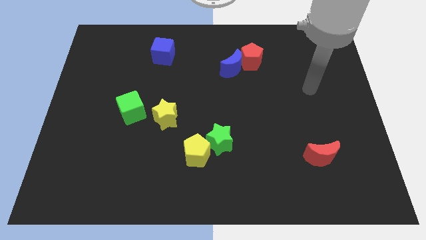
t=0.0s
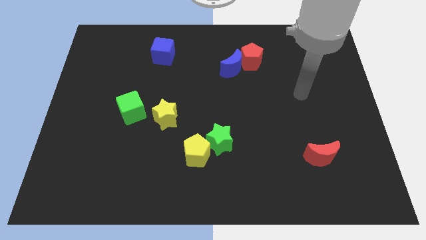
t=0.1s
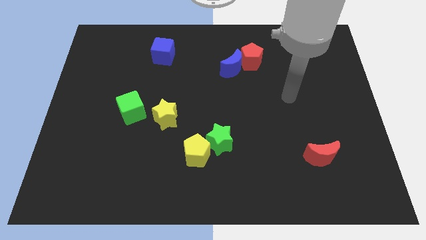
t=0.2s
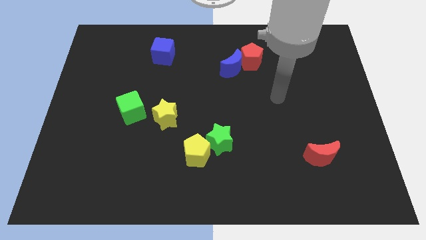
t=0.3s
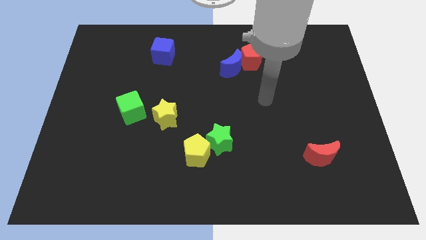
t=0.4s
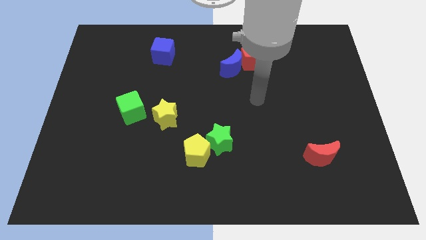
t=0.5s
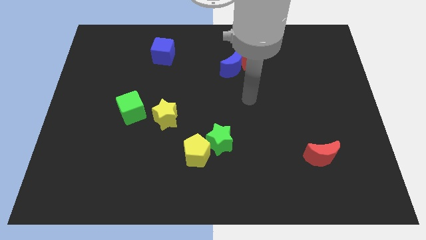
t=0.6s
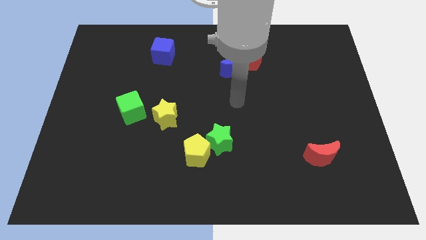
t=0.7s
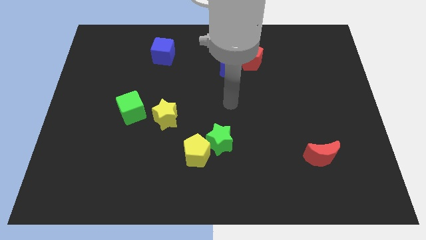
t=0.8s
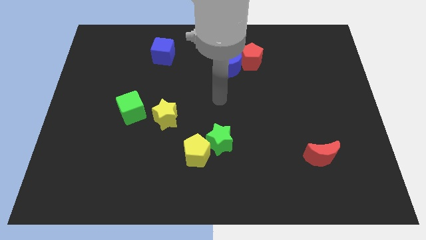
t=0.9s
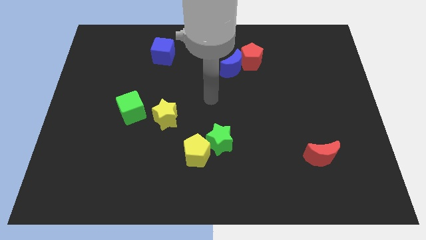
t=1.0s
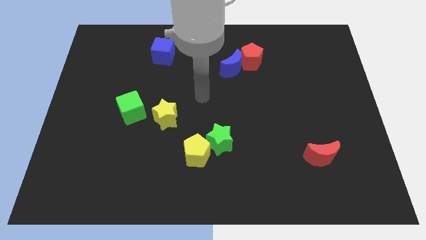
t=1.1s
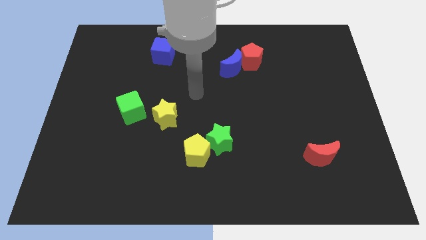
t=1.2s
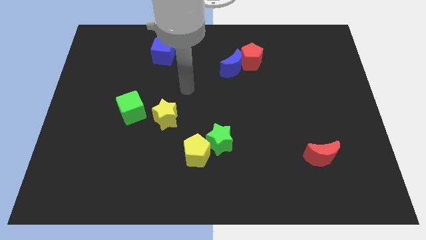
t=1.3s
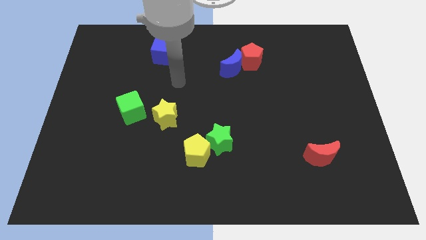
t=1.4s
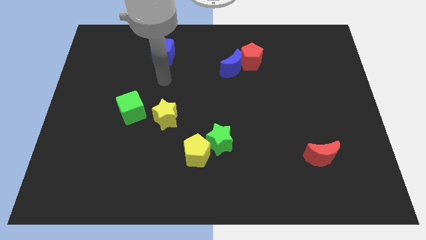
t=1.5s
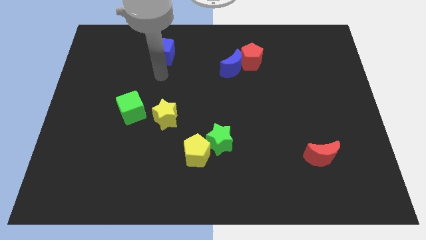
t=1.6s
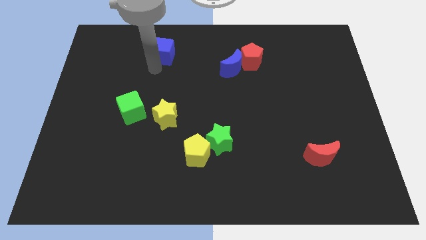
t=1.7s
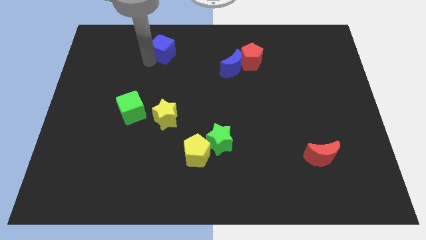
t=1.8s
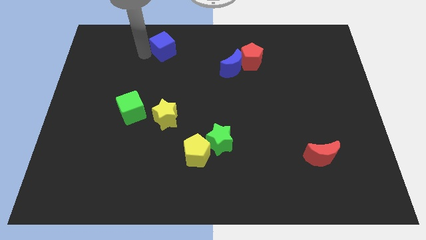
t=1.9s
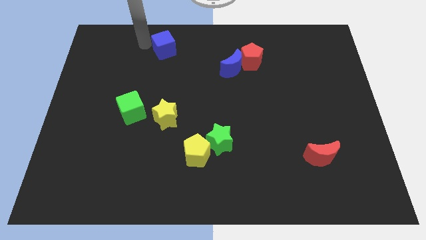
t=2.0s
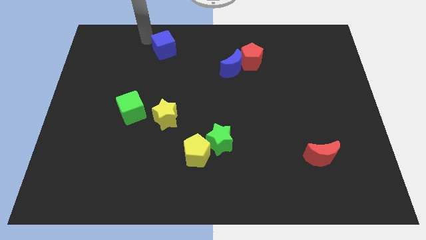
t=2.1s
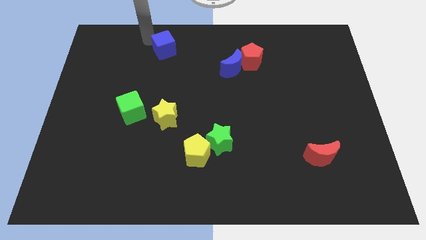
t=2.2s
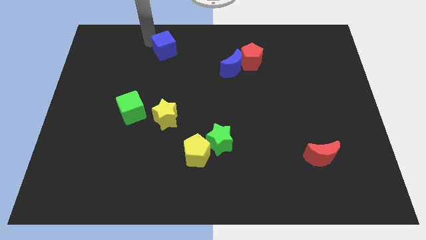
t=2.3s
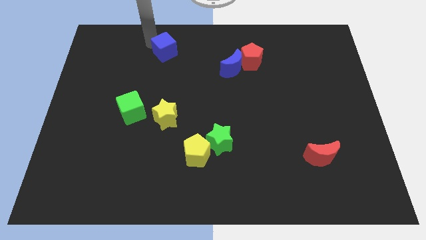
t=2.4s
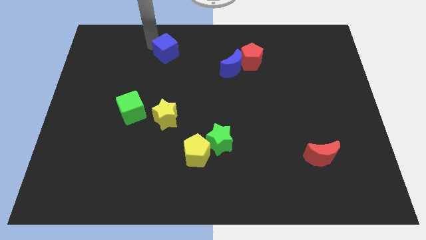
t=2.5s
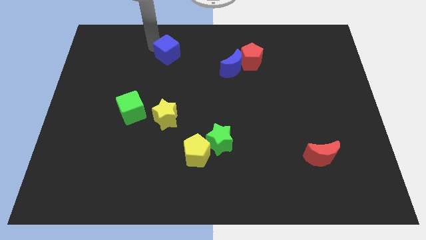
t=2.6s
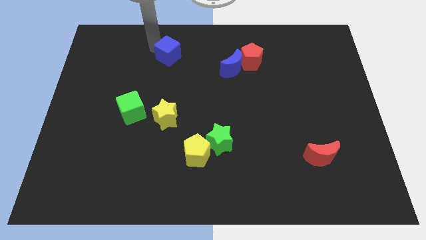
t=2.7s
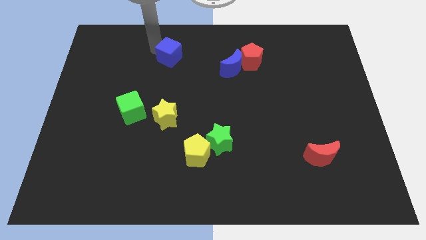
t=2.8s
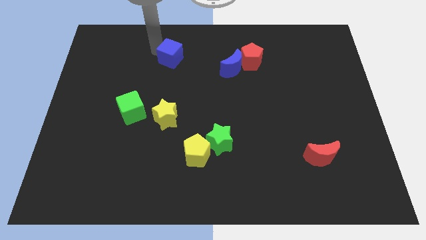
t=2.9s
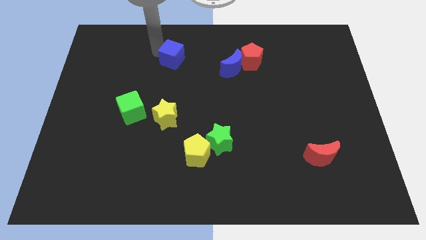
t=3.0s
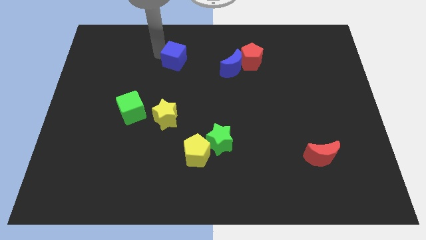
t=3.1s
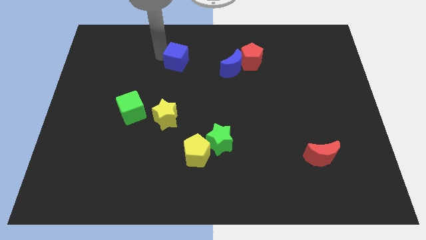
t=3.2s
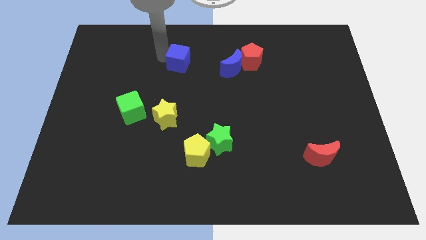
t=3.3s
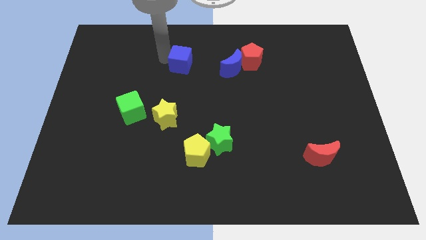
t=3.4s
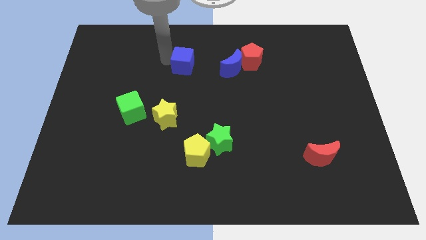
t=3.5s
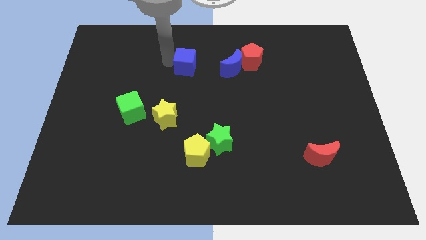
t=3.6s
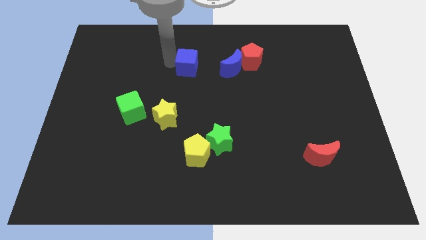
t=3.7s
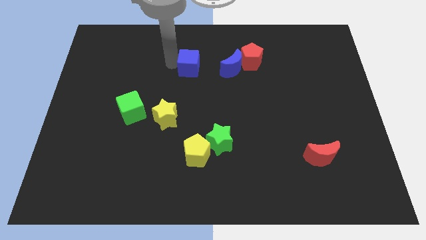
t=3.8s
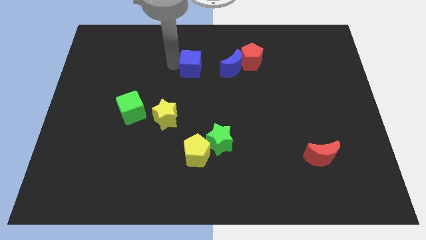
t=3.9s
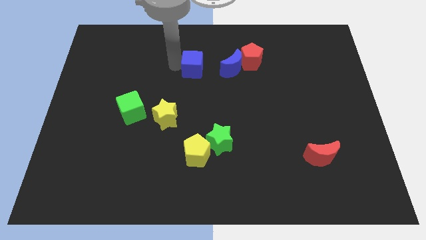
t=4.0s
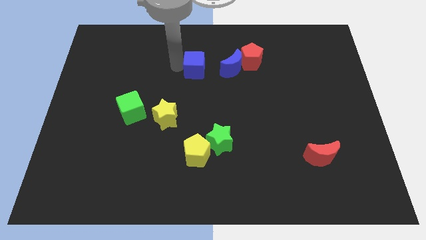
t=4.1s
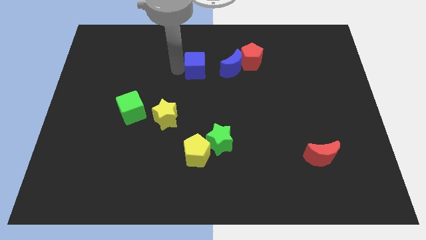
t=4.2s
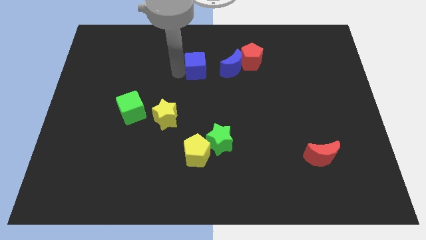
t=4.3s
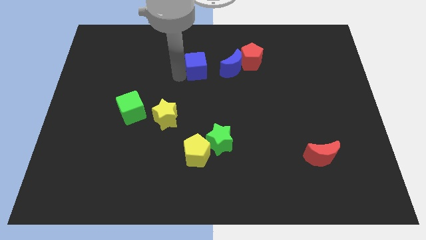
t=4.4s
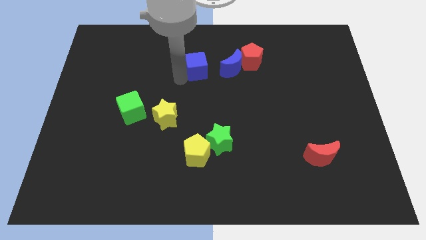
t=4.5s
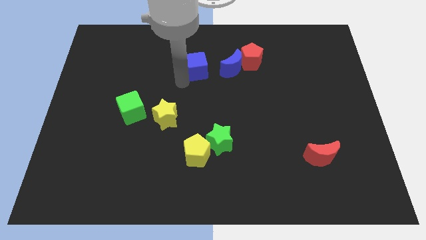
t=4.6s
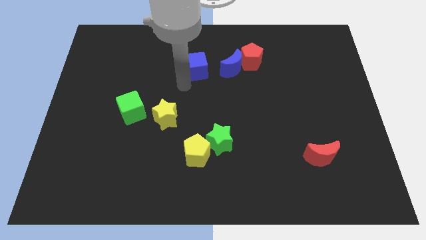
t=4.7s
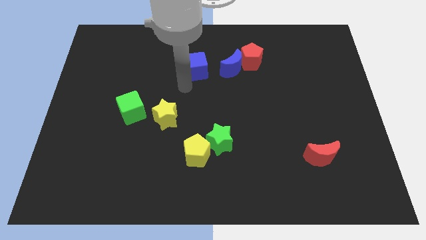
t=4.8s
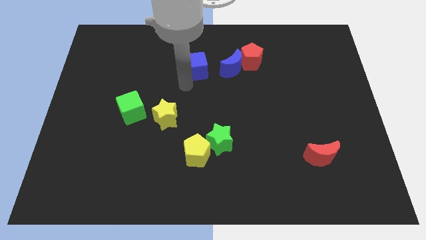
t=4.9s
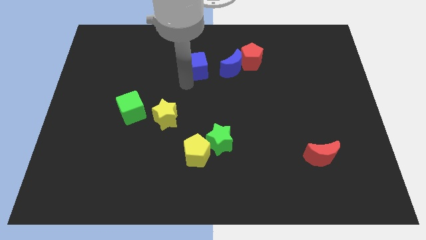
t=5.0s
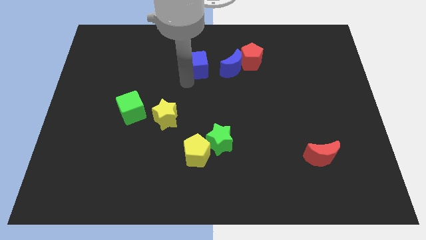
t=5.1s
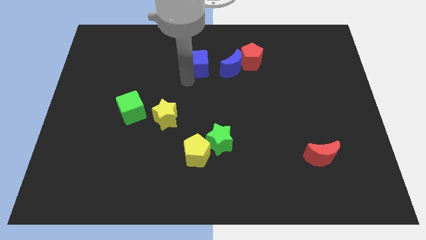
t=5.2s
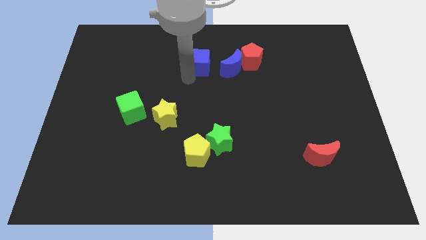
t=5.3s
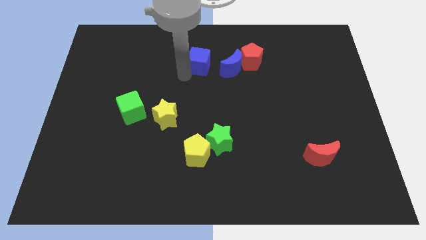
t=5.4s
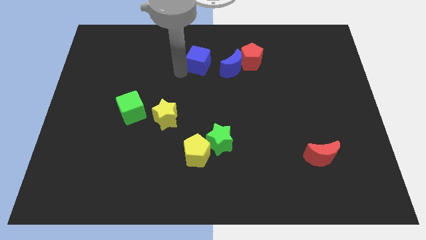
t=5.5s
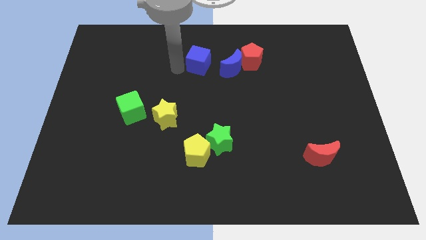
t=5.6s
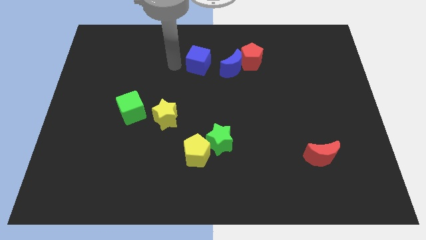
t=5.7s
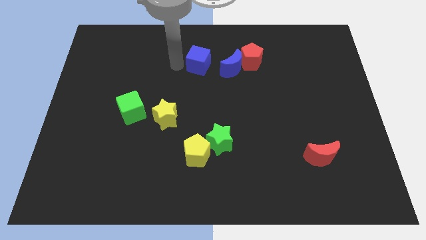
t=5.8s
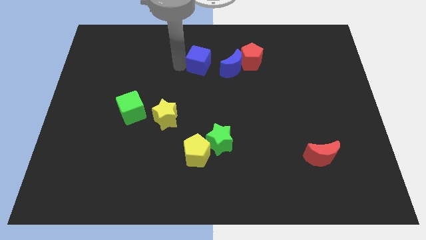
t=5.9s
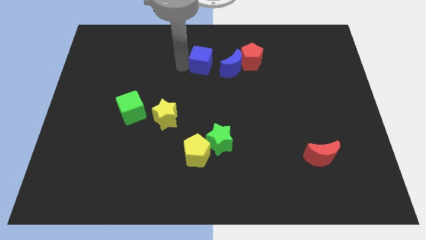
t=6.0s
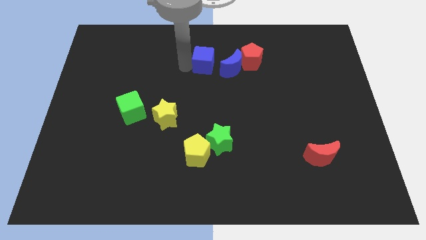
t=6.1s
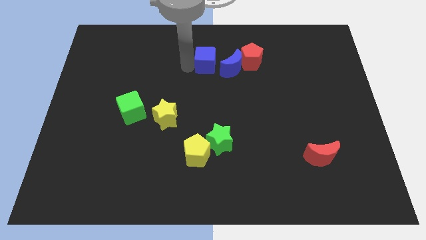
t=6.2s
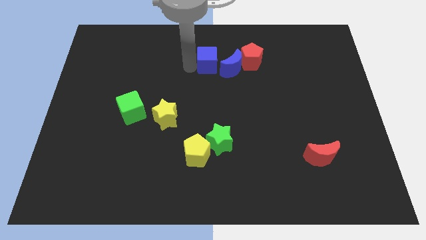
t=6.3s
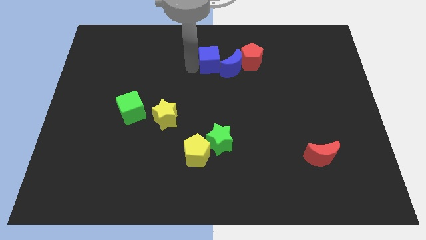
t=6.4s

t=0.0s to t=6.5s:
slide the blue cube next to the blue moon

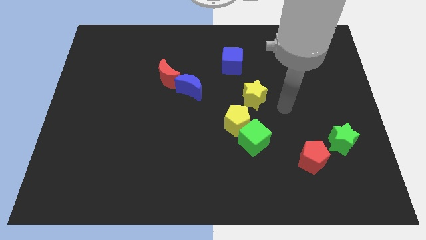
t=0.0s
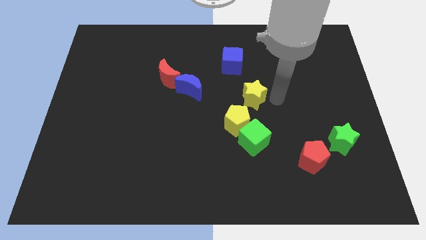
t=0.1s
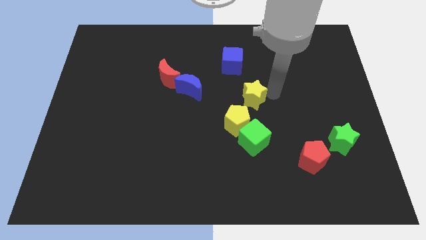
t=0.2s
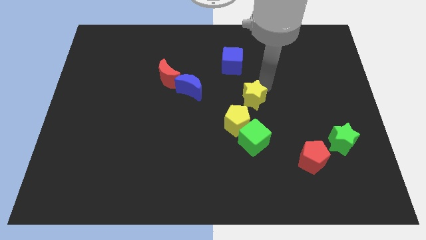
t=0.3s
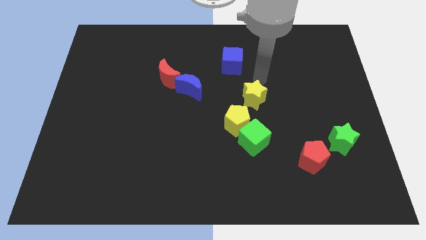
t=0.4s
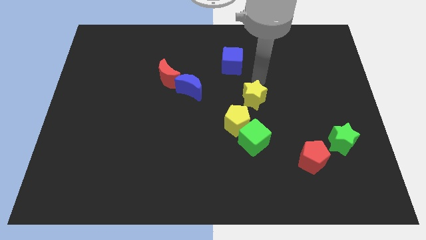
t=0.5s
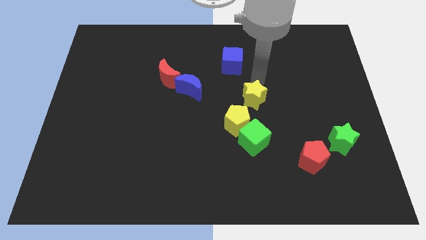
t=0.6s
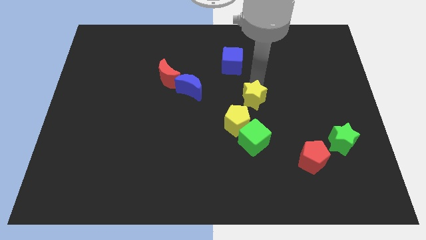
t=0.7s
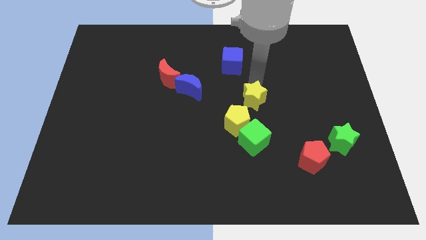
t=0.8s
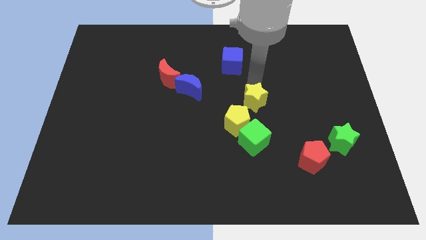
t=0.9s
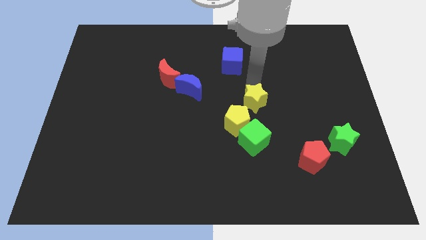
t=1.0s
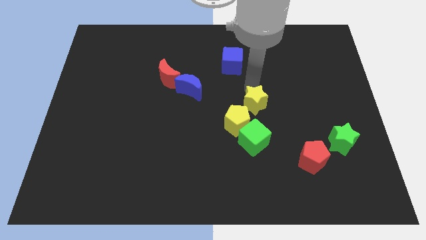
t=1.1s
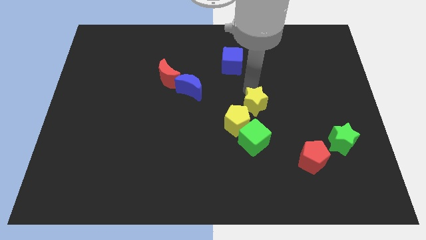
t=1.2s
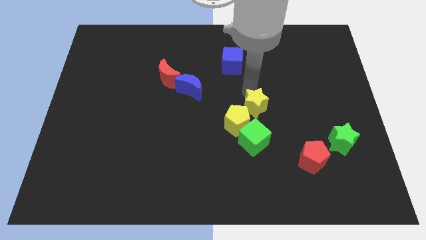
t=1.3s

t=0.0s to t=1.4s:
put the yellow star to the yellow pentagon
